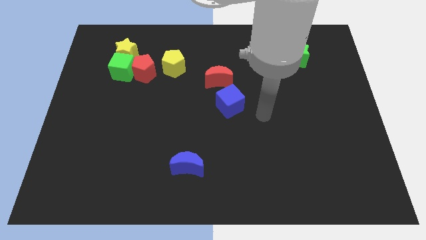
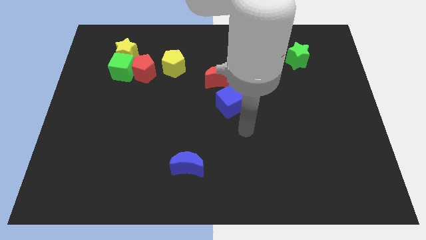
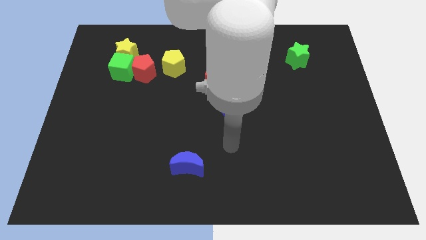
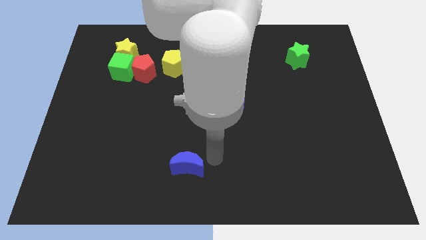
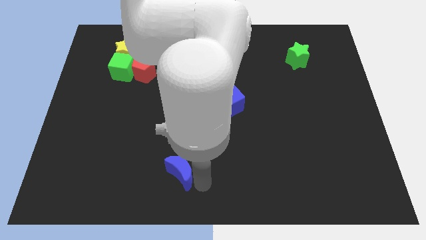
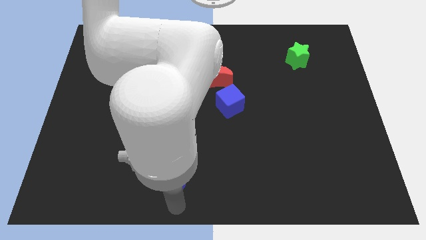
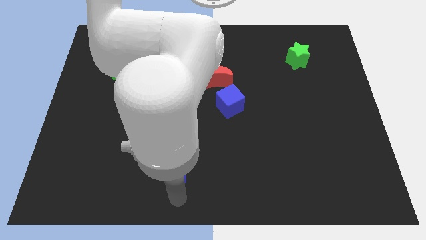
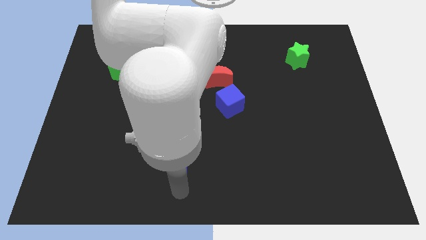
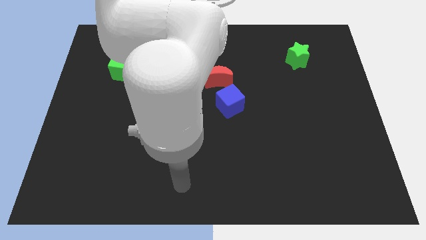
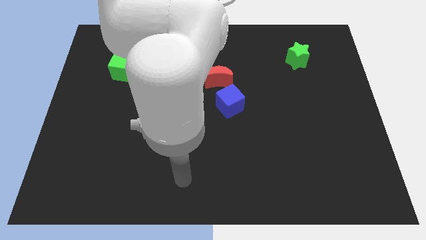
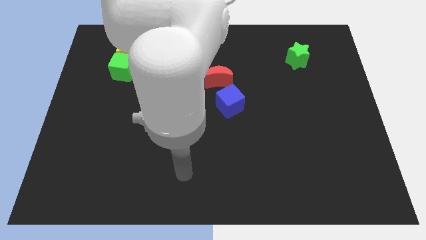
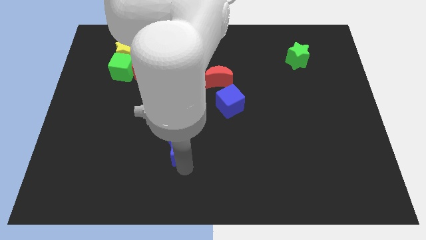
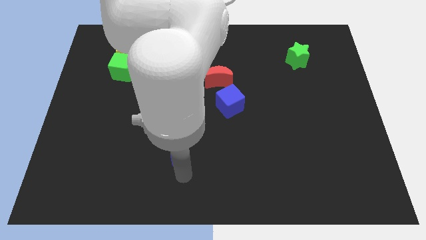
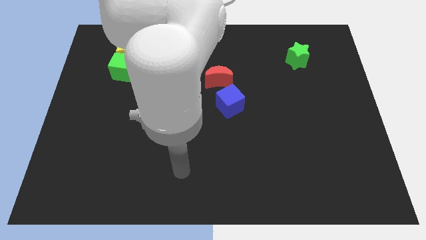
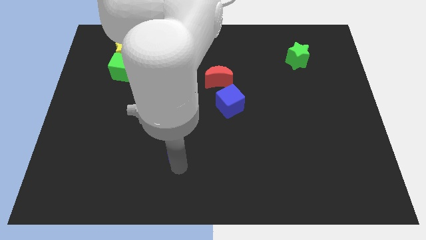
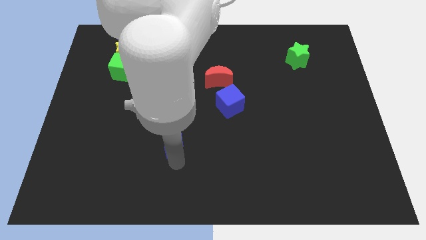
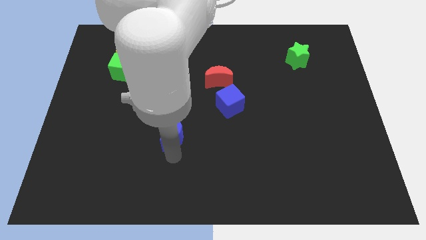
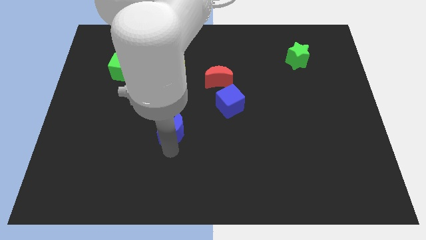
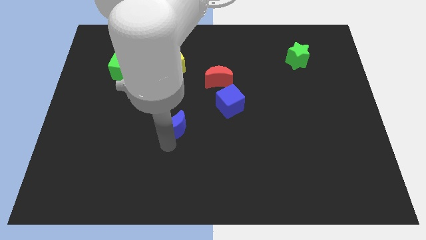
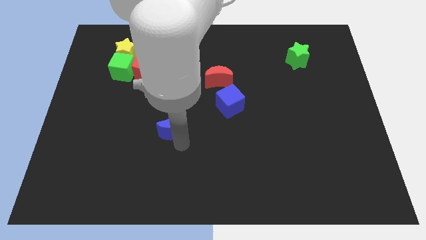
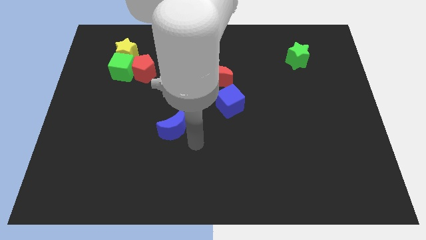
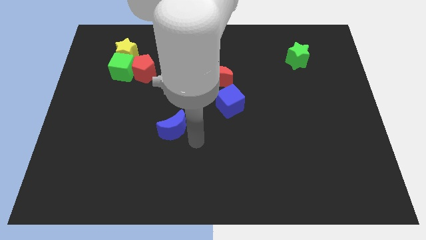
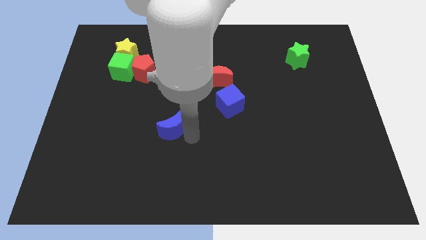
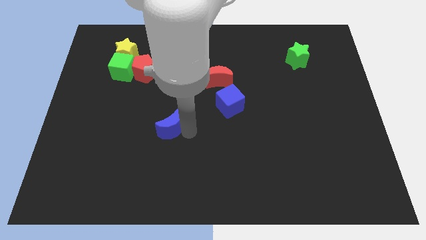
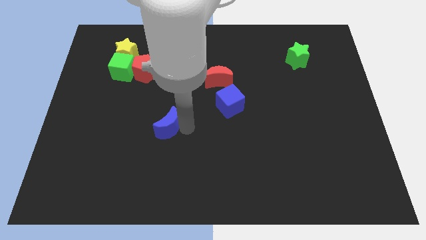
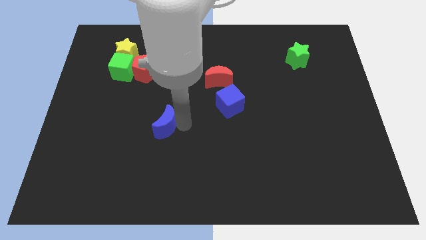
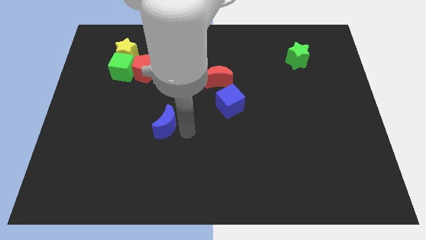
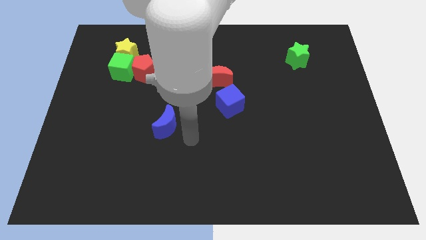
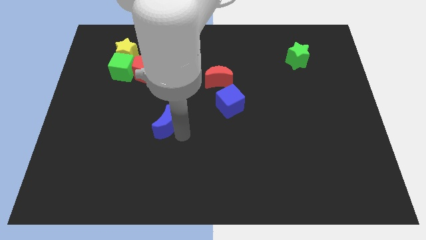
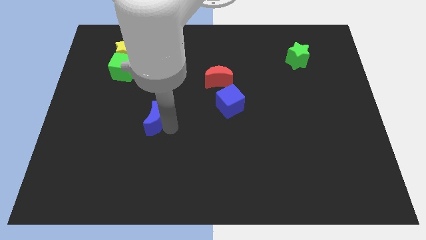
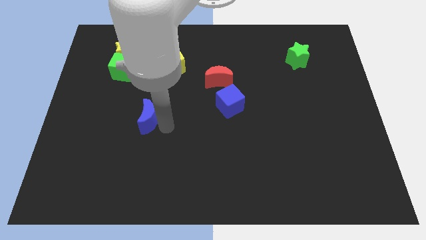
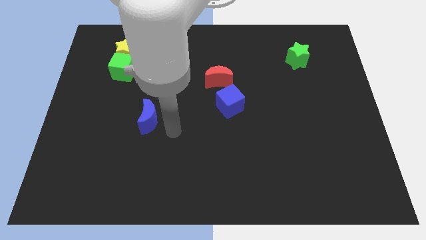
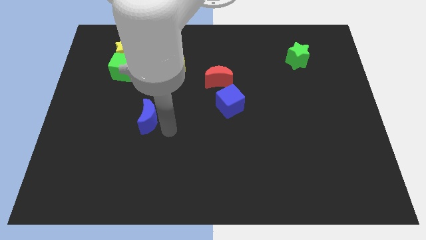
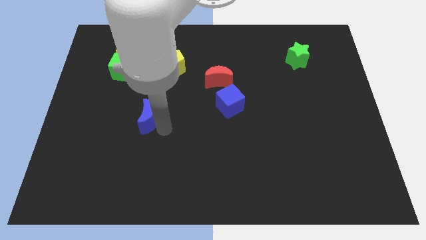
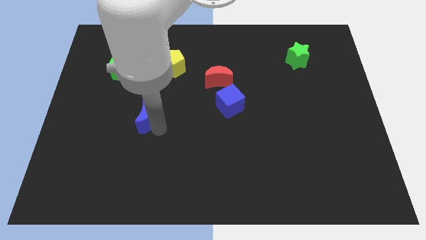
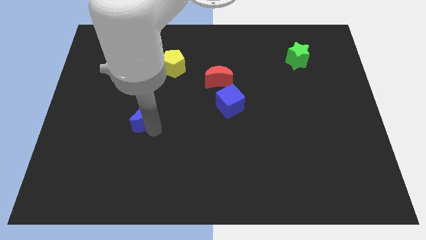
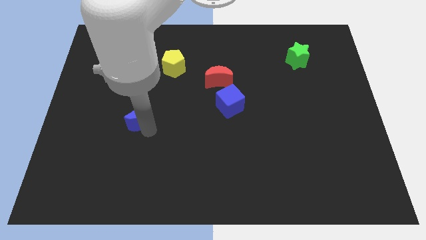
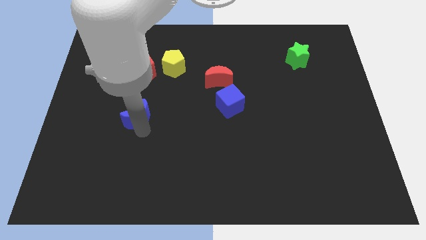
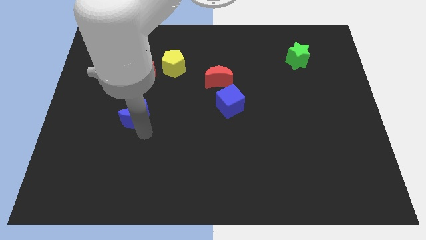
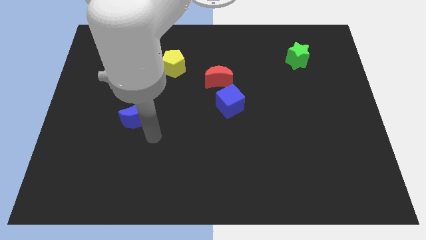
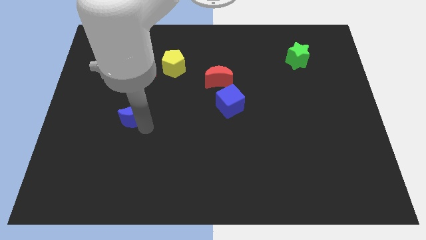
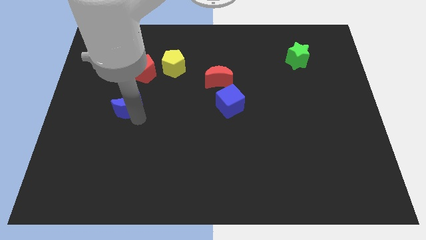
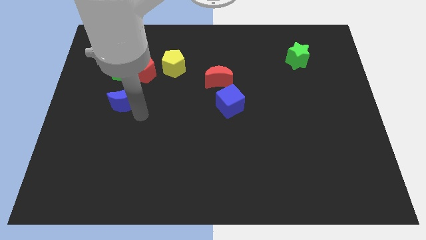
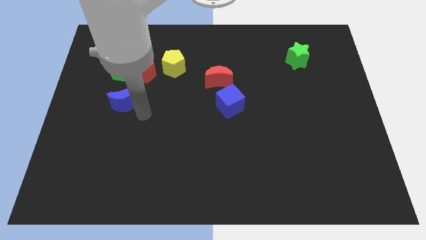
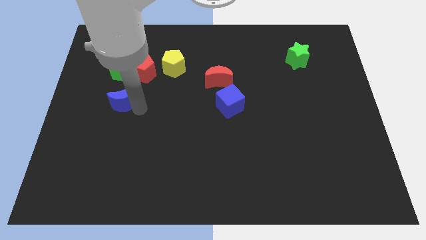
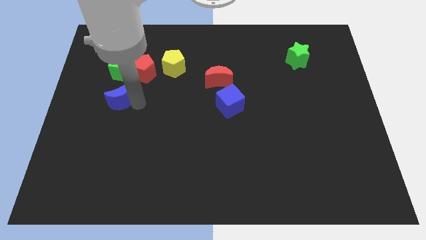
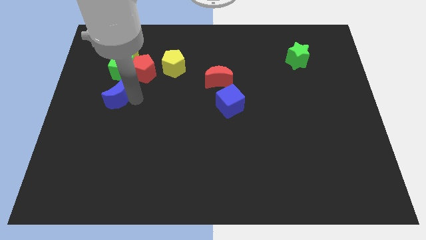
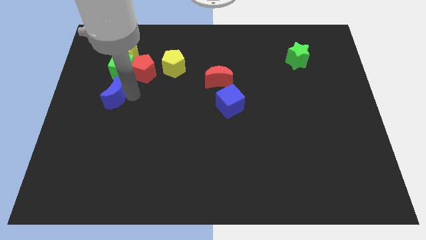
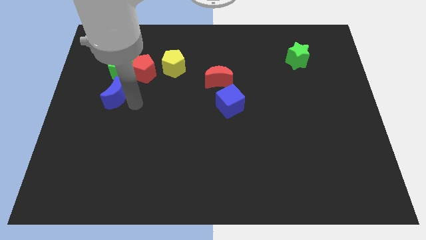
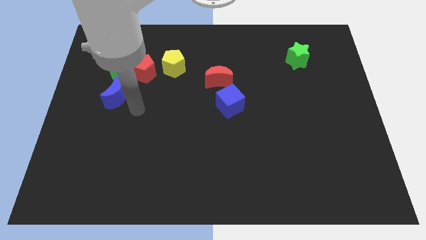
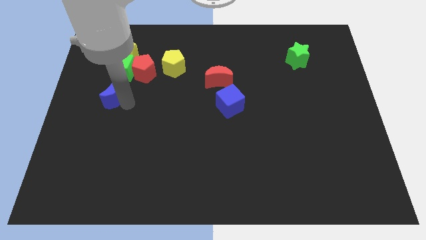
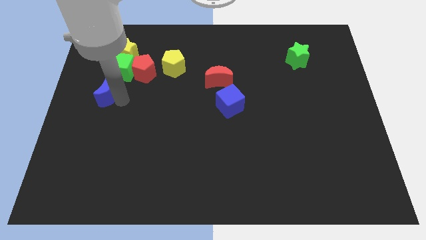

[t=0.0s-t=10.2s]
push the blue moon to the bottom left side of the green cube

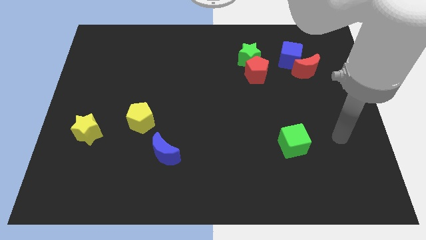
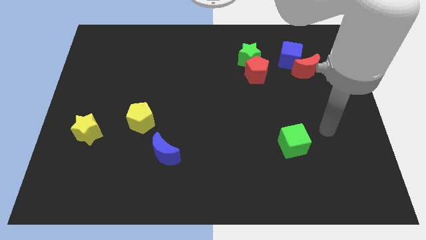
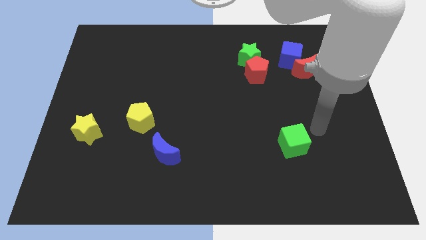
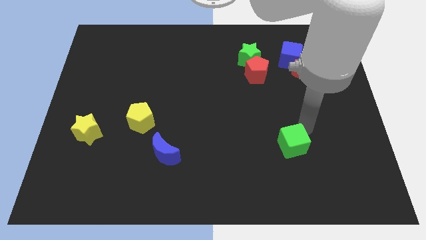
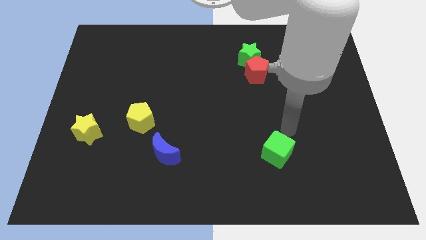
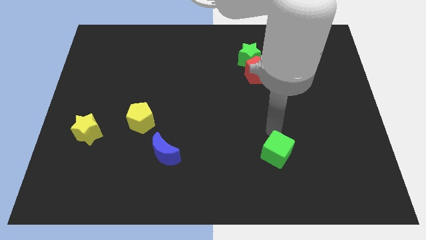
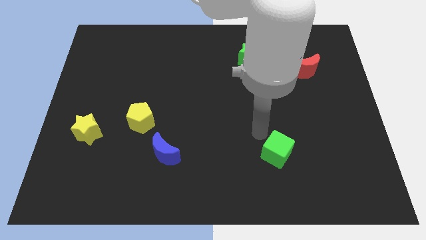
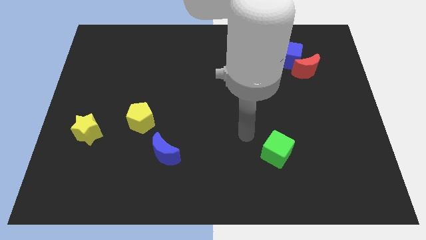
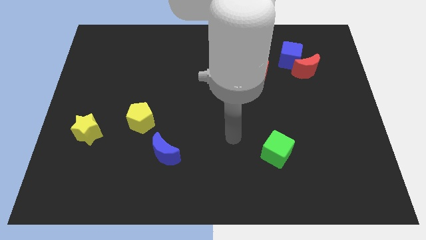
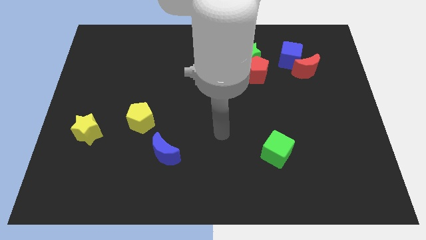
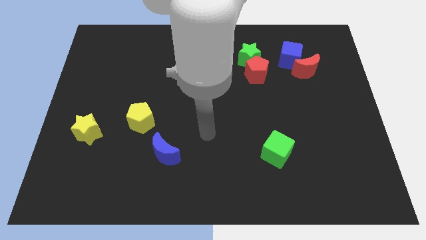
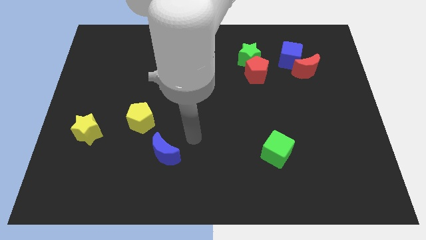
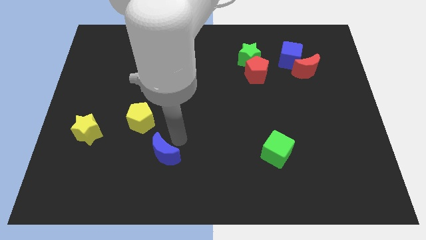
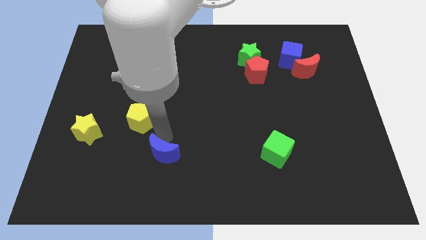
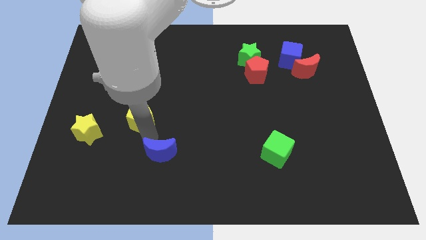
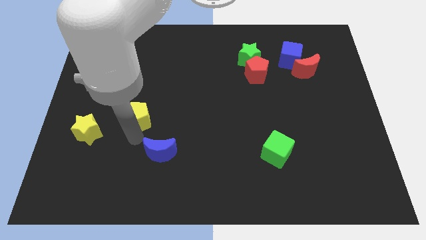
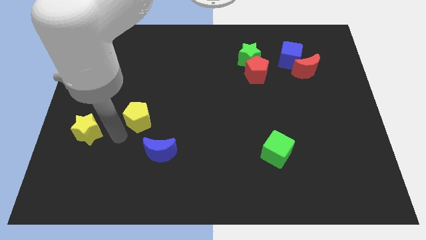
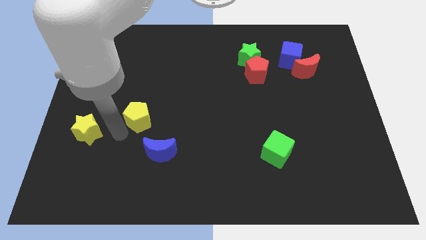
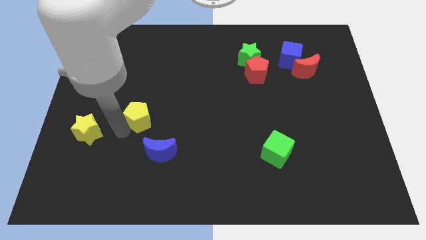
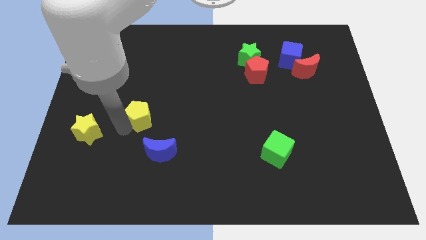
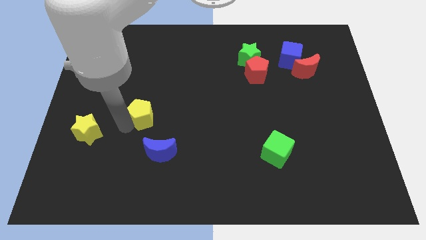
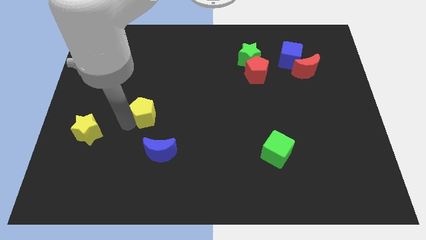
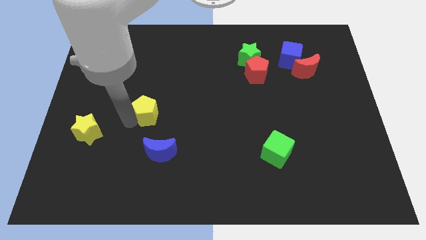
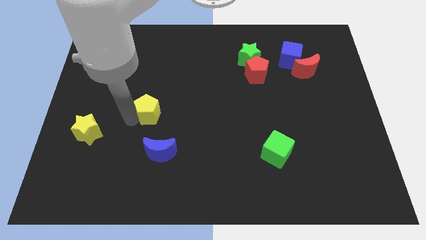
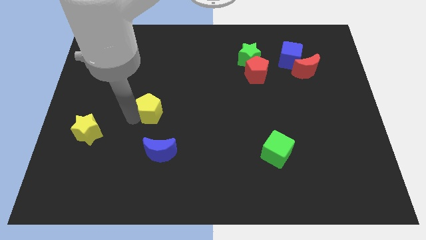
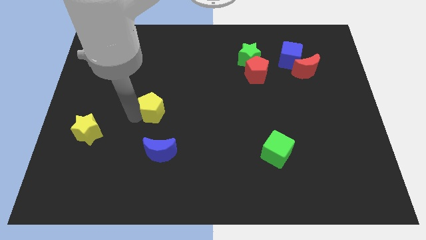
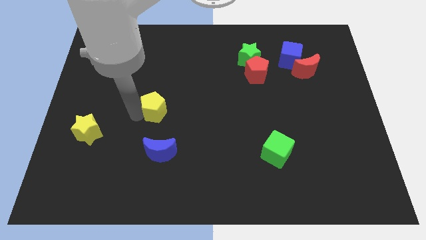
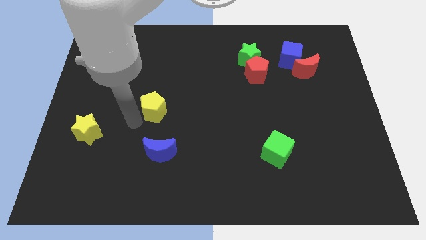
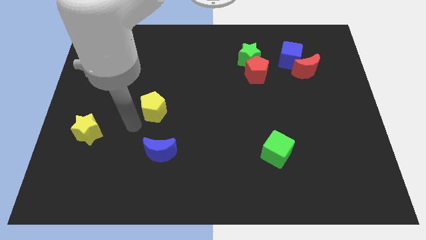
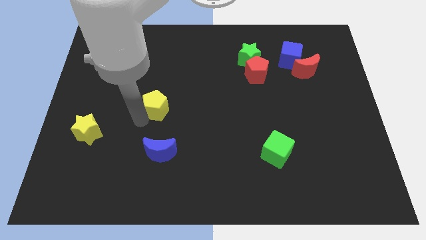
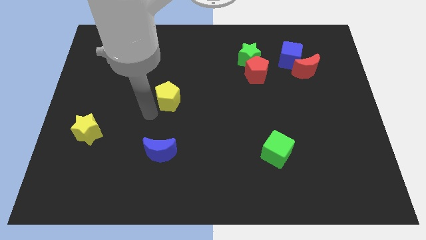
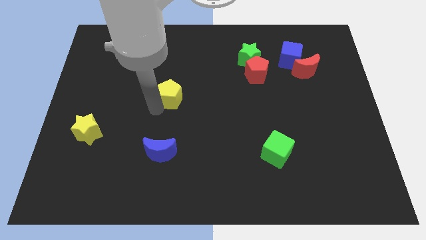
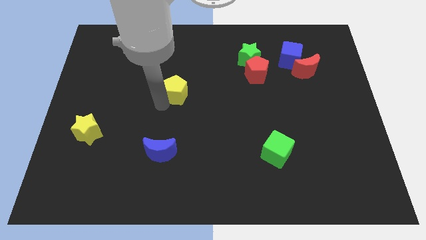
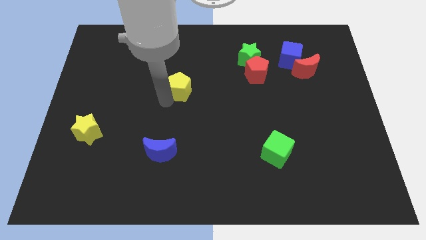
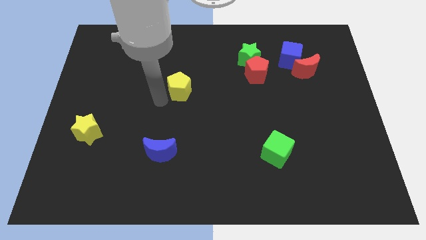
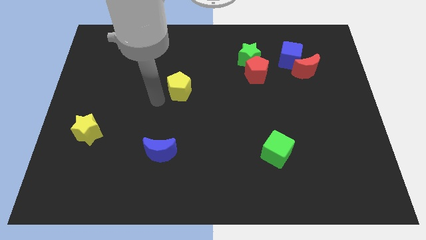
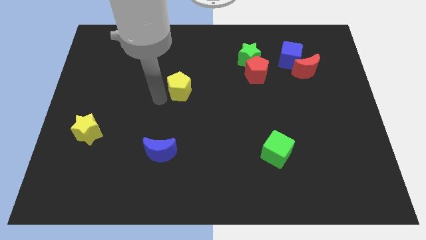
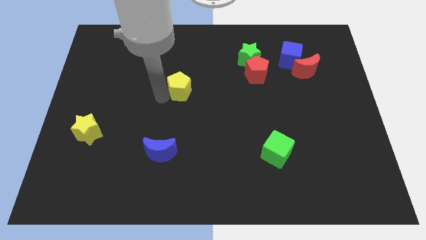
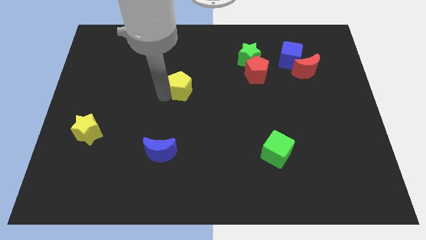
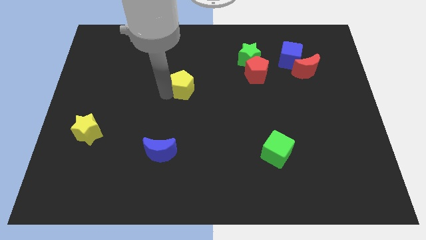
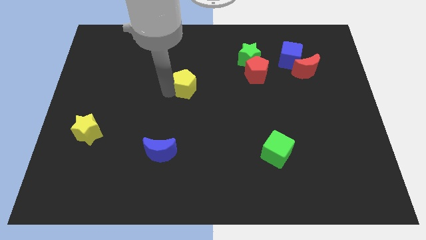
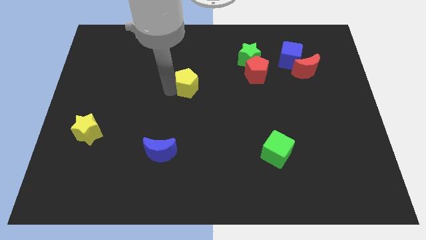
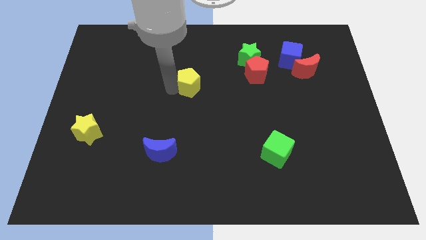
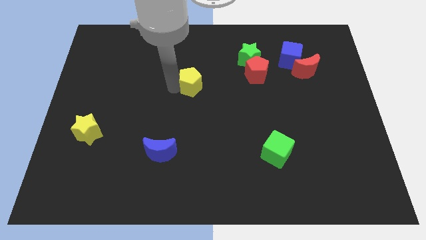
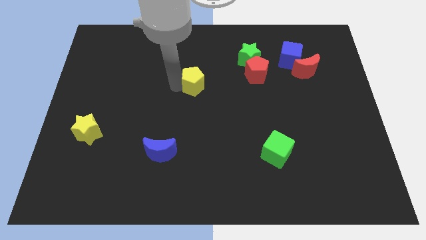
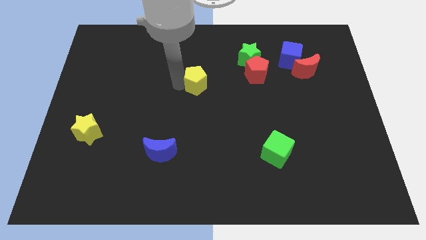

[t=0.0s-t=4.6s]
slide the yellow pentagon to the left side of the red pentagon
